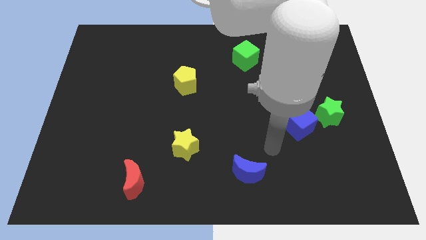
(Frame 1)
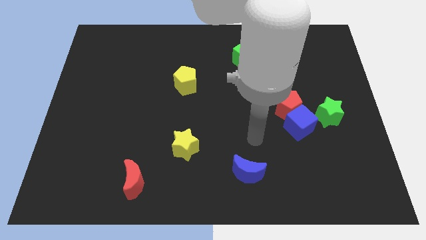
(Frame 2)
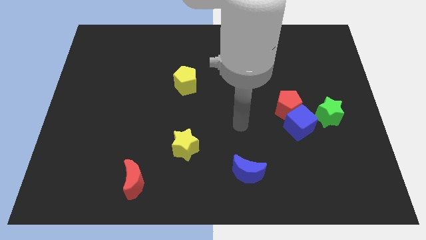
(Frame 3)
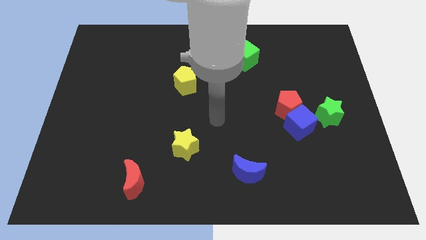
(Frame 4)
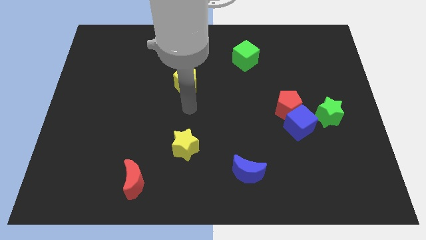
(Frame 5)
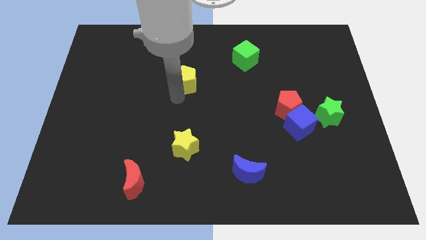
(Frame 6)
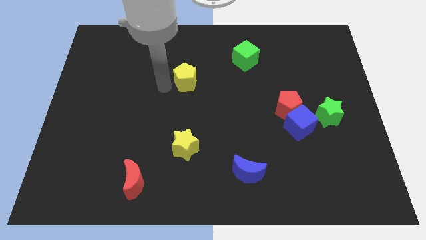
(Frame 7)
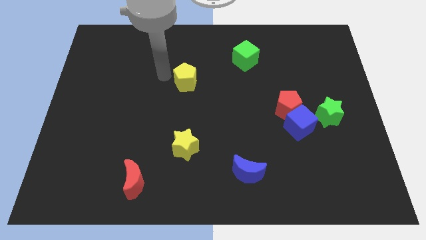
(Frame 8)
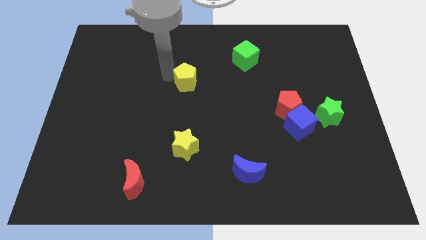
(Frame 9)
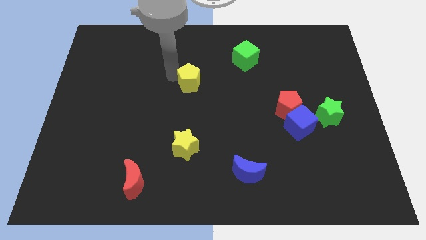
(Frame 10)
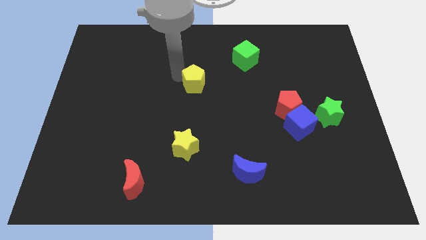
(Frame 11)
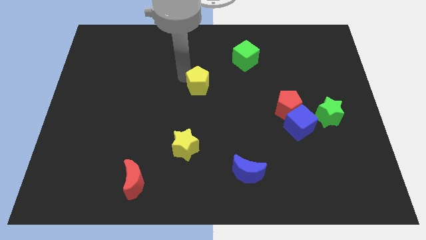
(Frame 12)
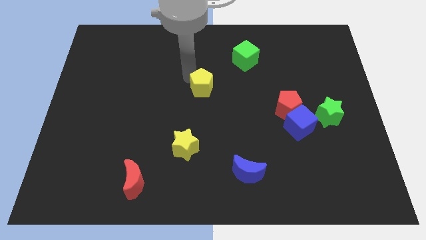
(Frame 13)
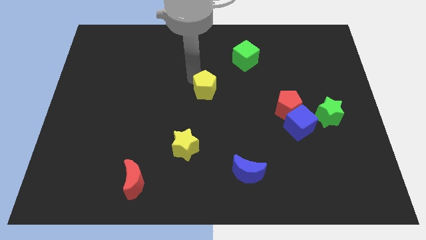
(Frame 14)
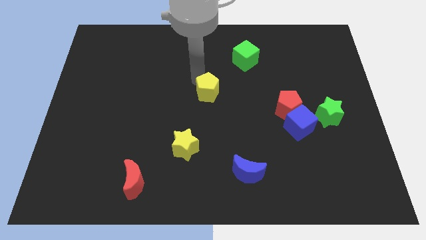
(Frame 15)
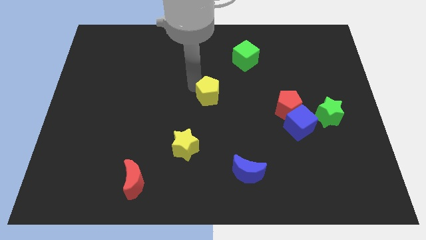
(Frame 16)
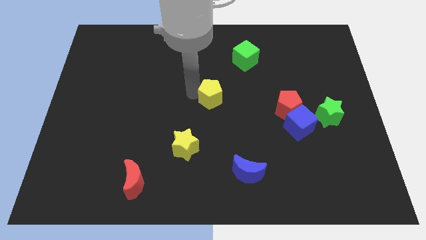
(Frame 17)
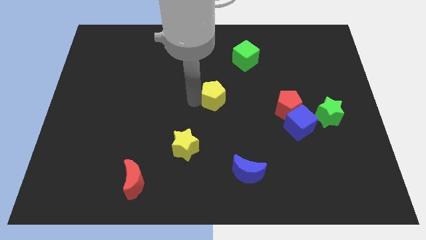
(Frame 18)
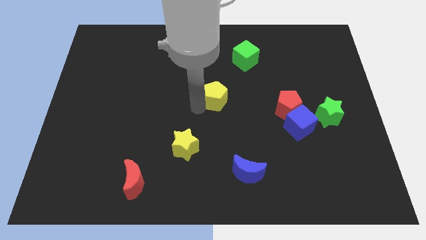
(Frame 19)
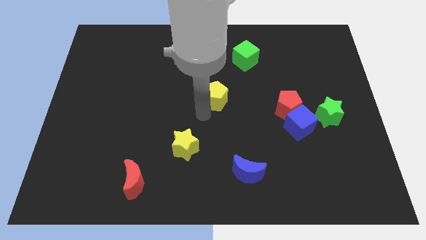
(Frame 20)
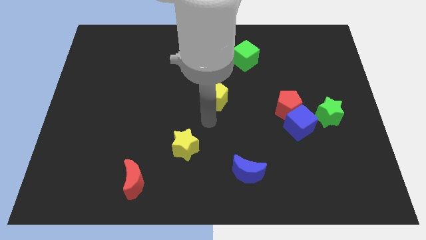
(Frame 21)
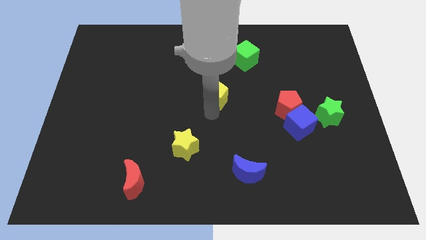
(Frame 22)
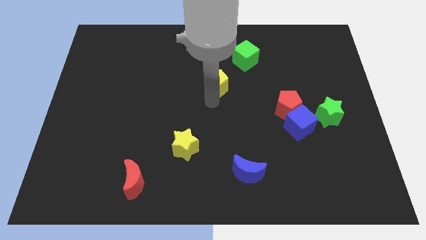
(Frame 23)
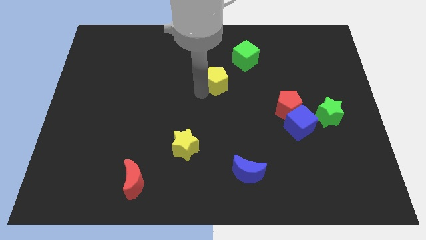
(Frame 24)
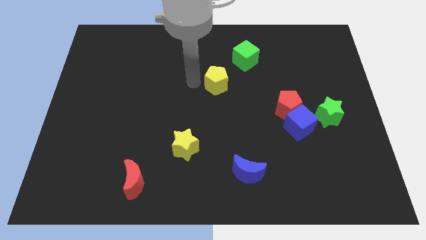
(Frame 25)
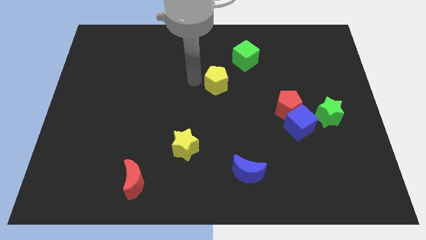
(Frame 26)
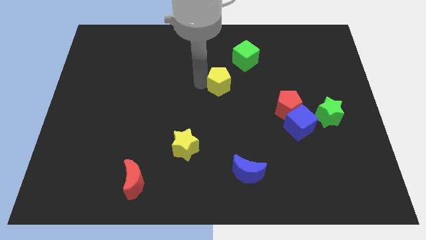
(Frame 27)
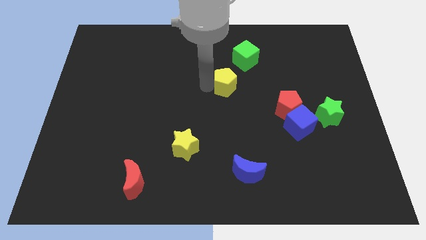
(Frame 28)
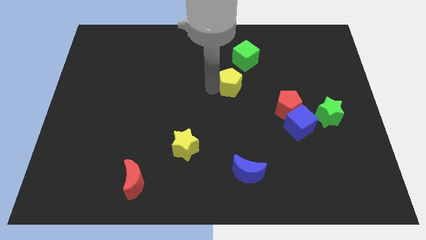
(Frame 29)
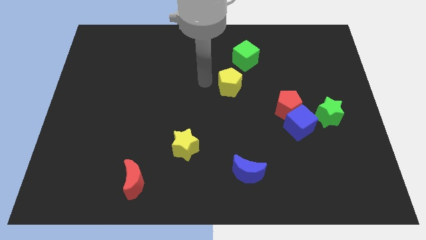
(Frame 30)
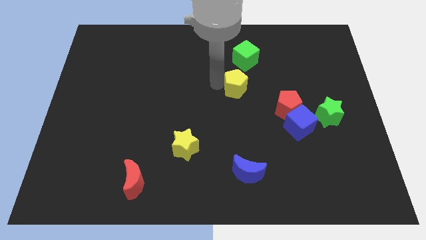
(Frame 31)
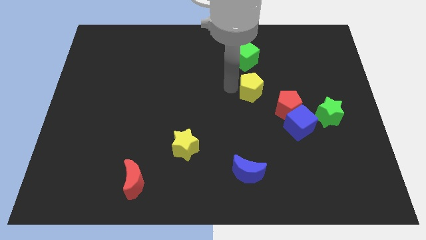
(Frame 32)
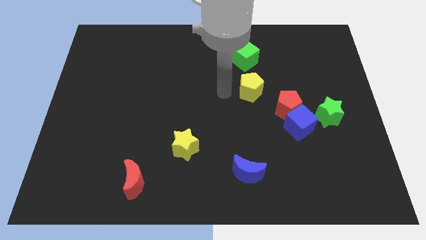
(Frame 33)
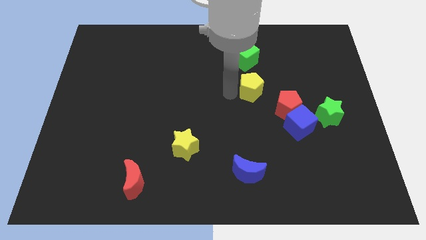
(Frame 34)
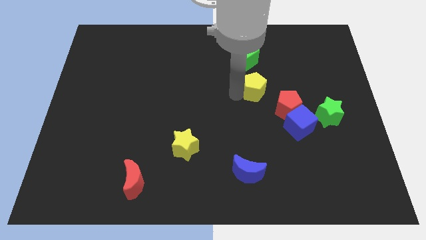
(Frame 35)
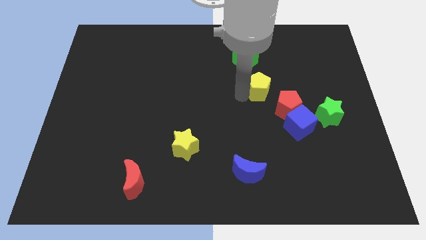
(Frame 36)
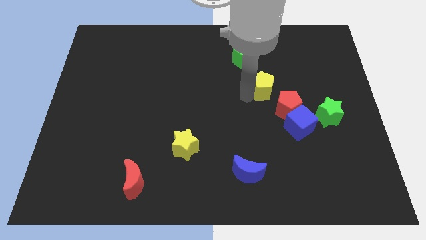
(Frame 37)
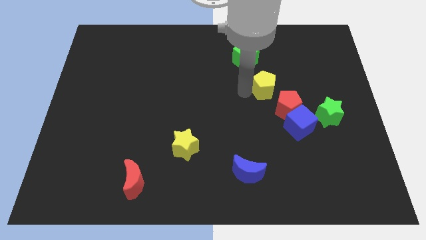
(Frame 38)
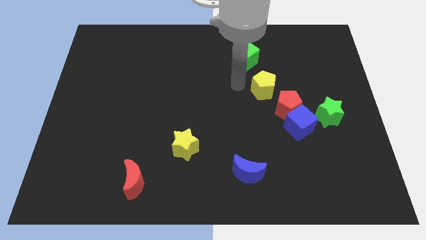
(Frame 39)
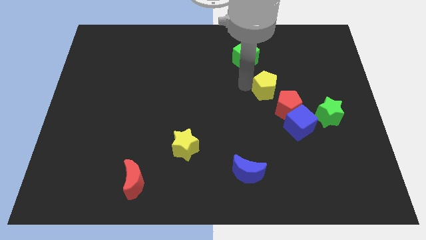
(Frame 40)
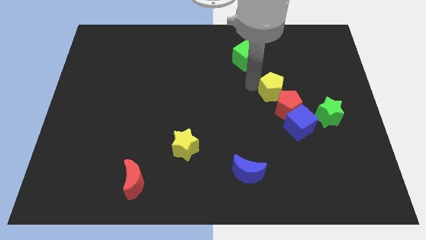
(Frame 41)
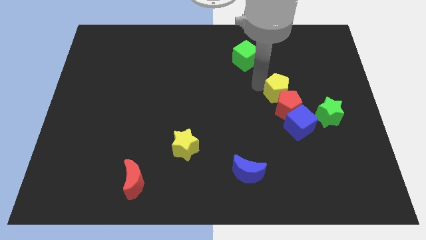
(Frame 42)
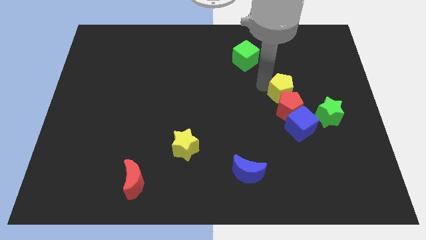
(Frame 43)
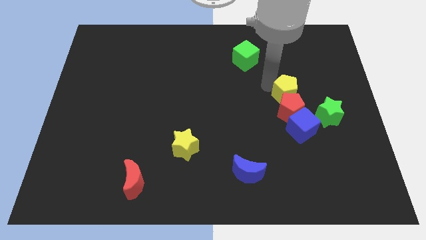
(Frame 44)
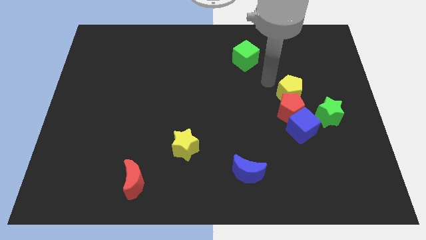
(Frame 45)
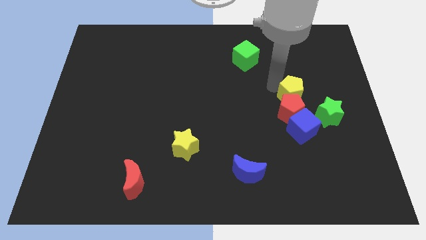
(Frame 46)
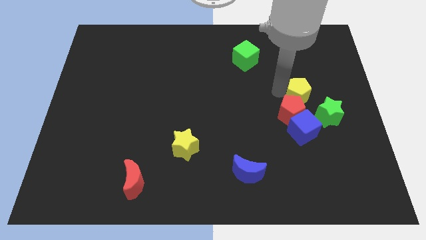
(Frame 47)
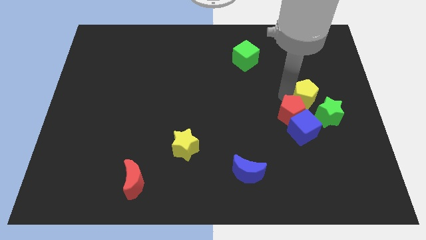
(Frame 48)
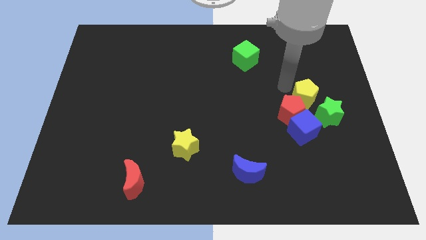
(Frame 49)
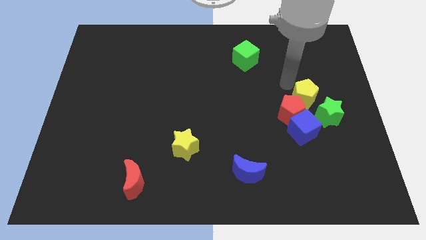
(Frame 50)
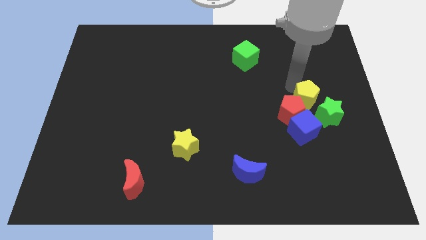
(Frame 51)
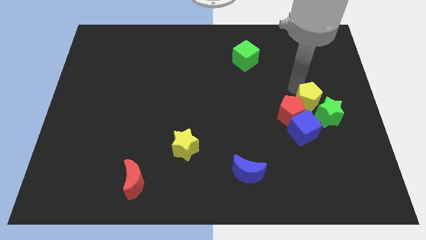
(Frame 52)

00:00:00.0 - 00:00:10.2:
move the yellow pentagon close to the green star

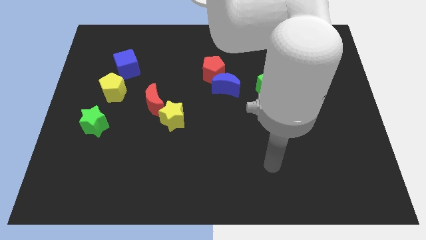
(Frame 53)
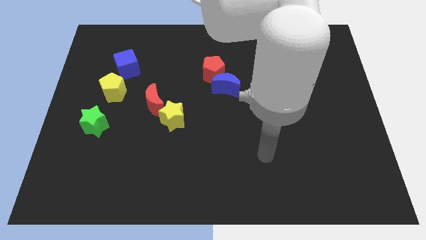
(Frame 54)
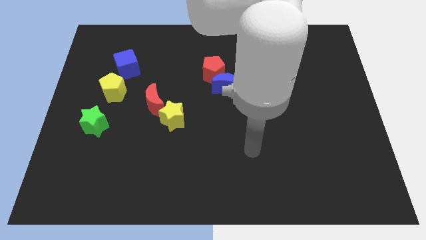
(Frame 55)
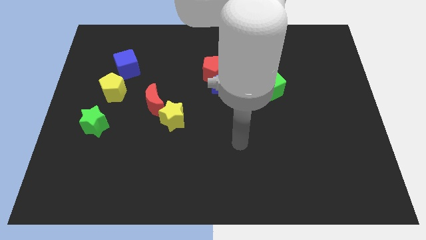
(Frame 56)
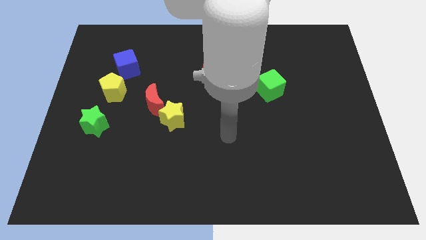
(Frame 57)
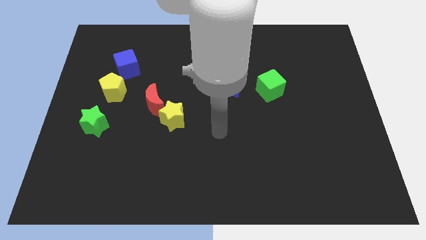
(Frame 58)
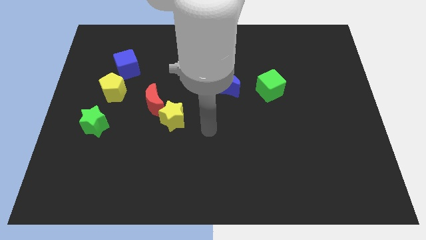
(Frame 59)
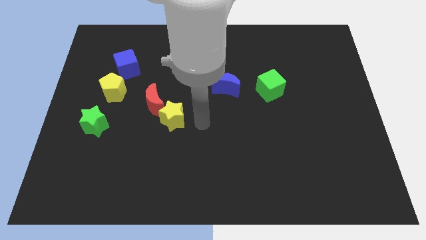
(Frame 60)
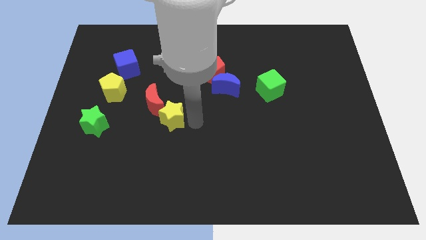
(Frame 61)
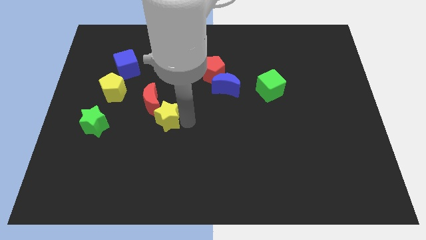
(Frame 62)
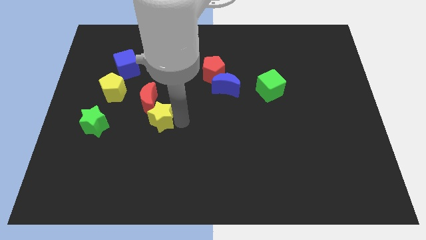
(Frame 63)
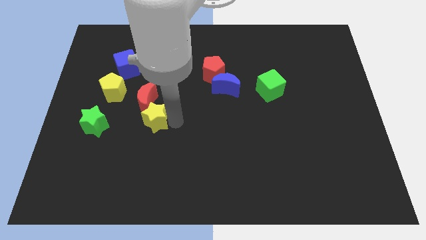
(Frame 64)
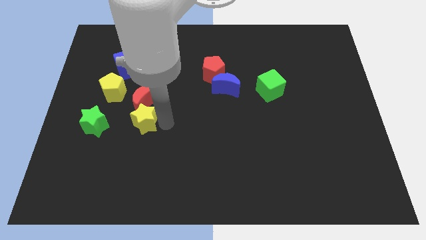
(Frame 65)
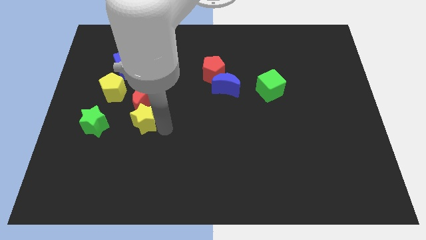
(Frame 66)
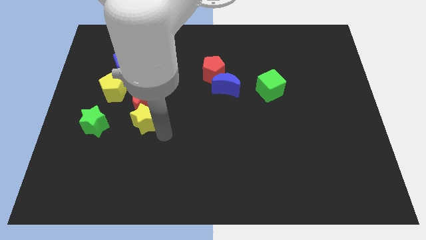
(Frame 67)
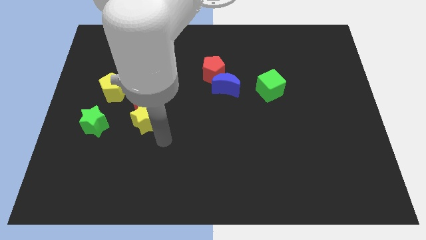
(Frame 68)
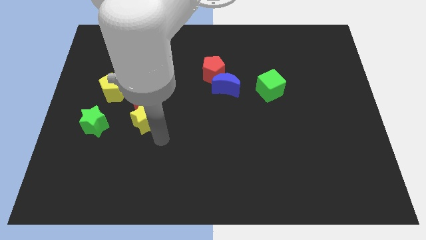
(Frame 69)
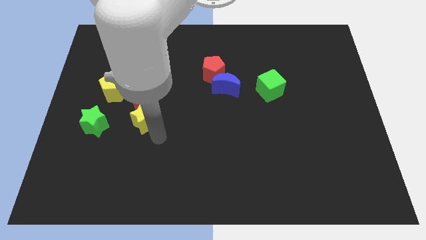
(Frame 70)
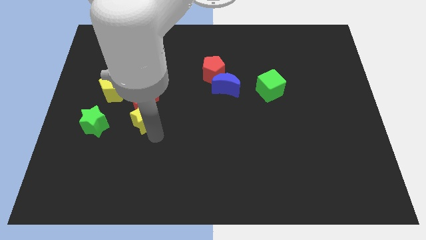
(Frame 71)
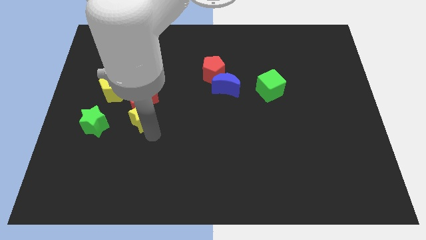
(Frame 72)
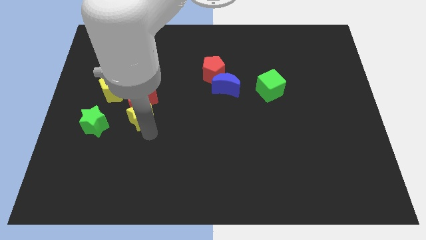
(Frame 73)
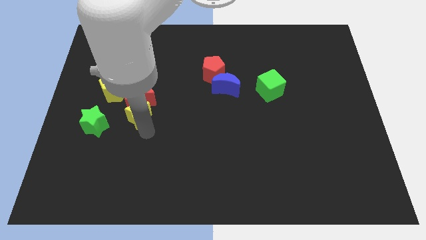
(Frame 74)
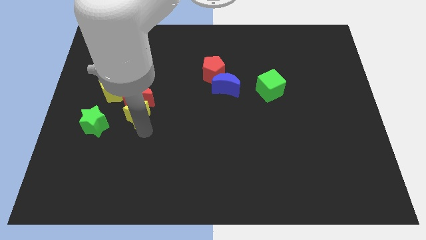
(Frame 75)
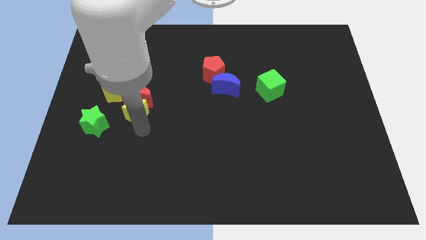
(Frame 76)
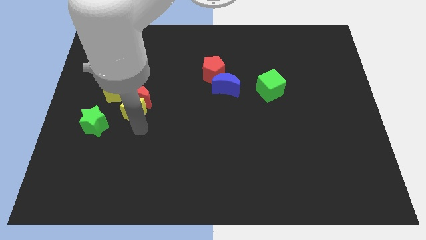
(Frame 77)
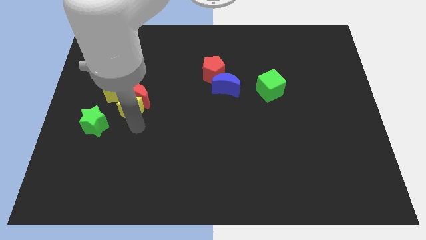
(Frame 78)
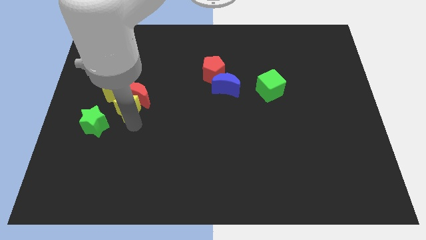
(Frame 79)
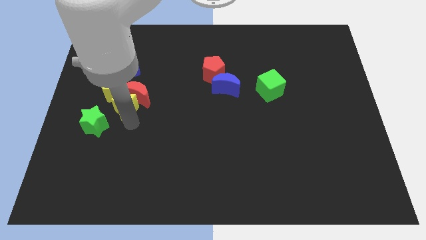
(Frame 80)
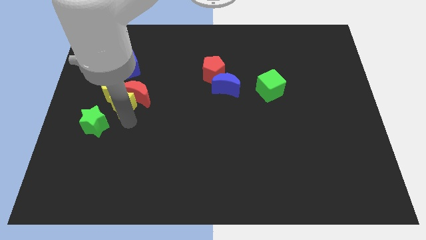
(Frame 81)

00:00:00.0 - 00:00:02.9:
slide the yellow star next to the yellow pentagon
